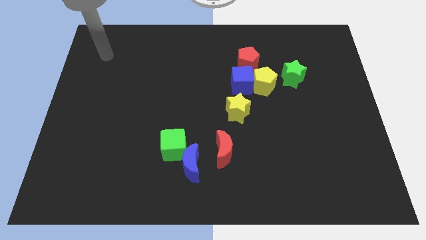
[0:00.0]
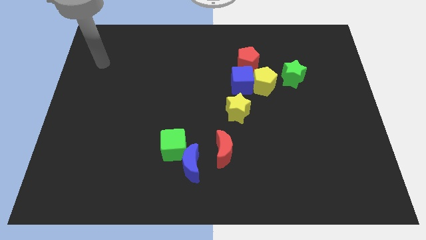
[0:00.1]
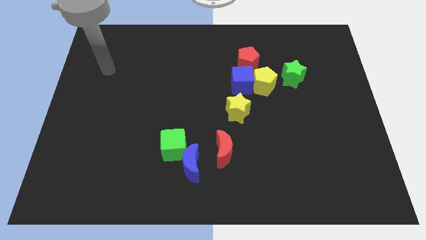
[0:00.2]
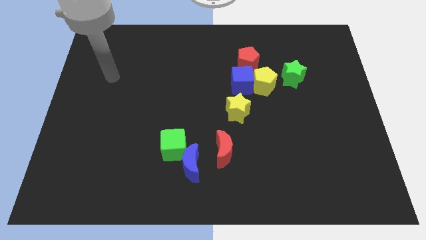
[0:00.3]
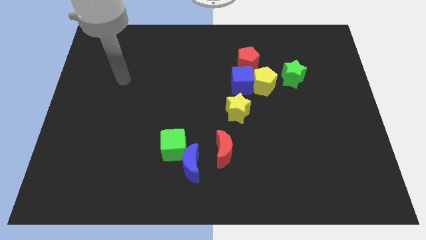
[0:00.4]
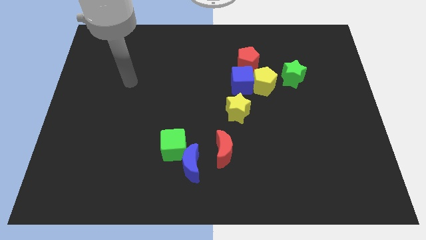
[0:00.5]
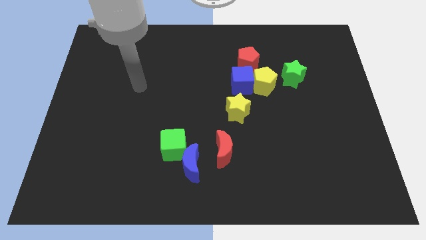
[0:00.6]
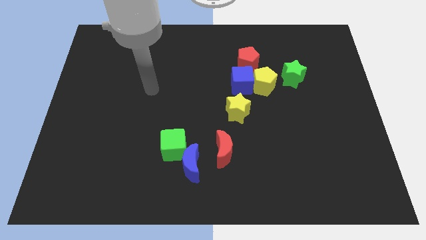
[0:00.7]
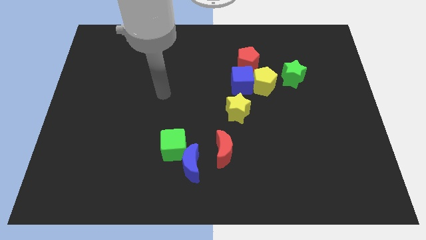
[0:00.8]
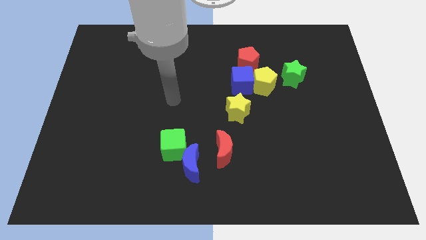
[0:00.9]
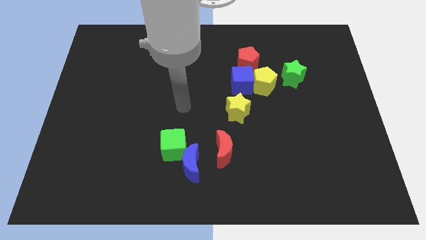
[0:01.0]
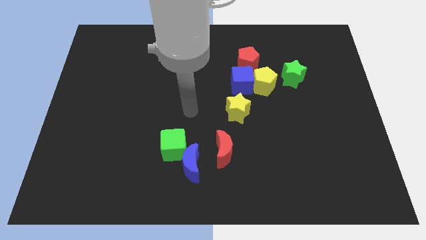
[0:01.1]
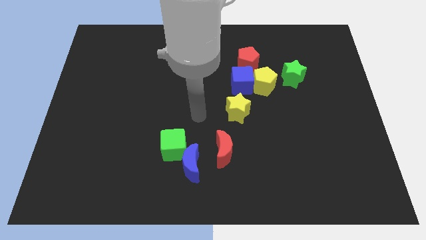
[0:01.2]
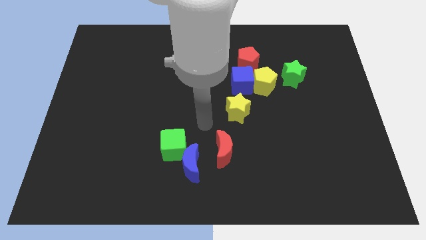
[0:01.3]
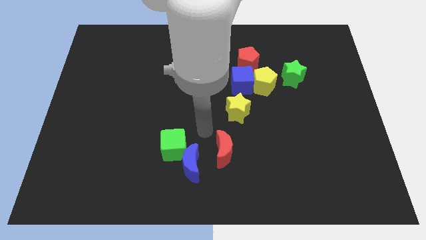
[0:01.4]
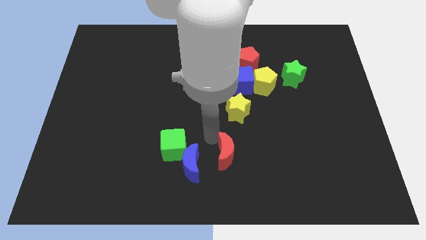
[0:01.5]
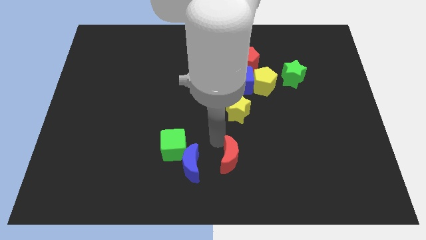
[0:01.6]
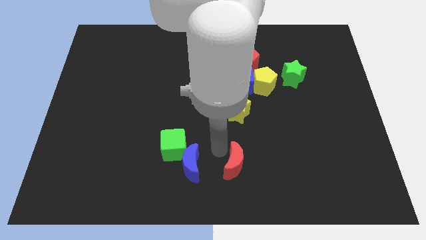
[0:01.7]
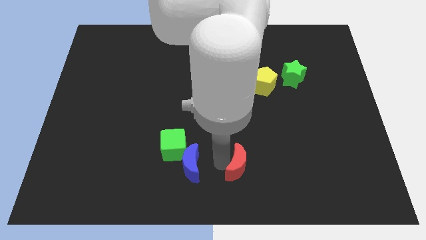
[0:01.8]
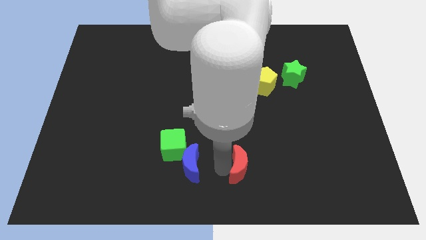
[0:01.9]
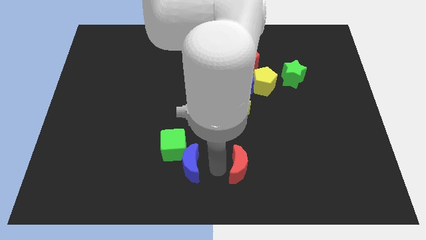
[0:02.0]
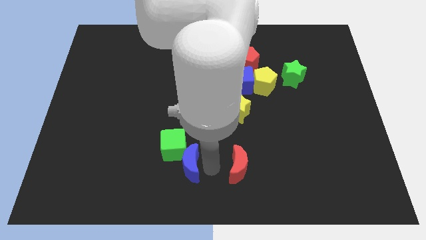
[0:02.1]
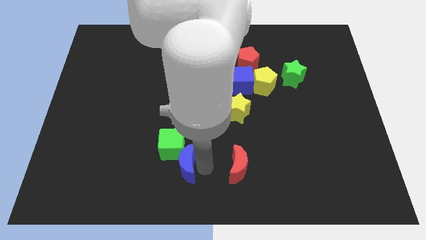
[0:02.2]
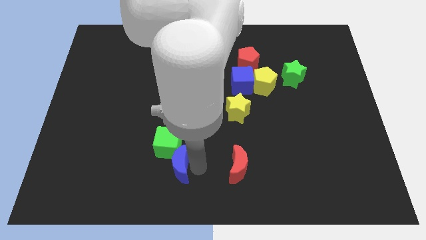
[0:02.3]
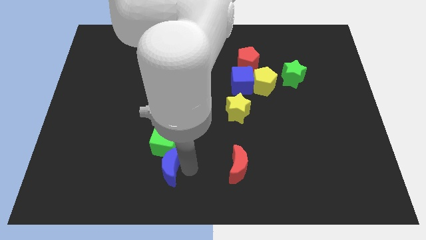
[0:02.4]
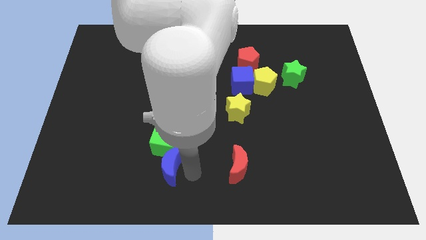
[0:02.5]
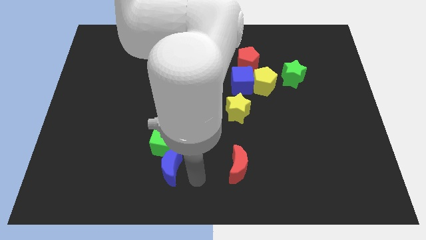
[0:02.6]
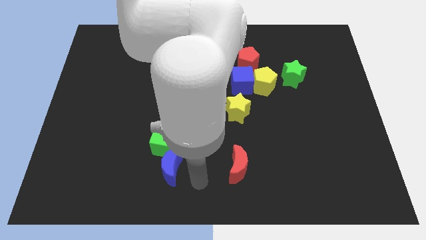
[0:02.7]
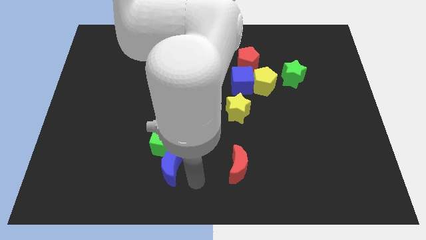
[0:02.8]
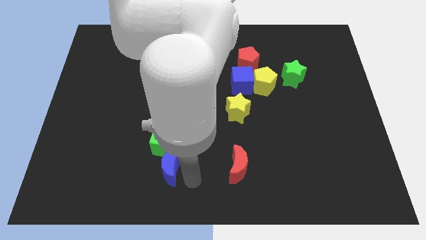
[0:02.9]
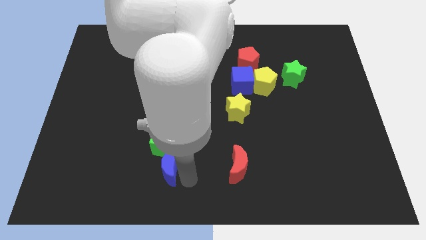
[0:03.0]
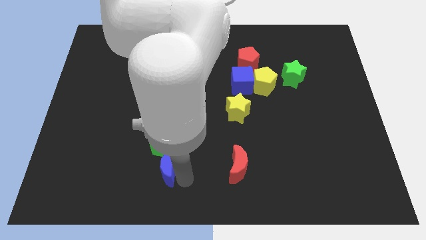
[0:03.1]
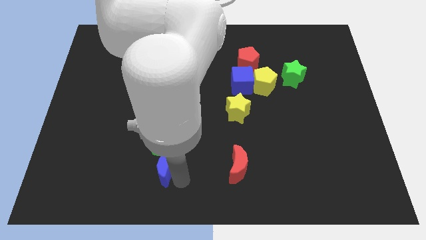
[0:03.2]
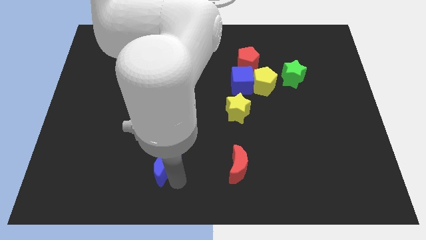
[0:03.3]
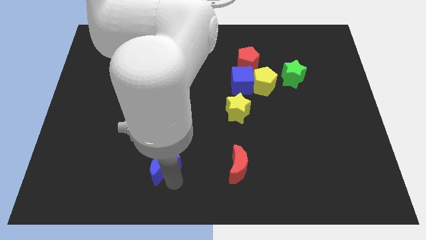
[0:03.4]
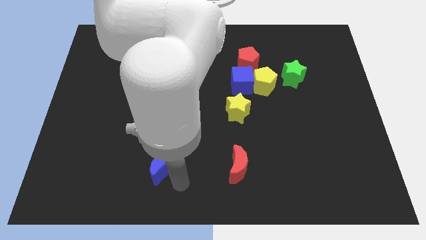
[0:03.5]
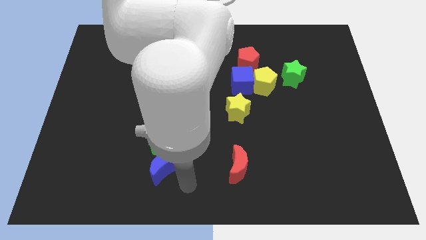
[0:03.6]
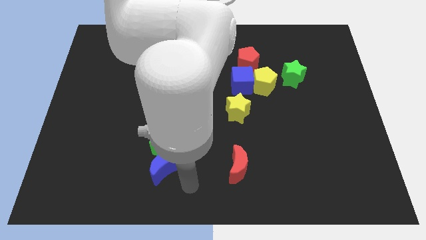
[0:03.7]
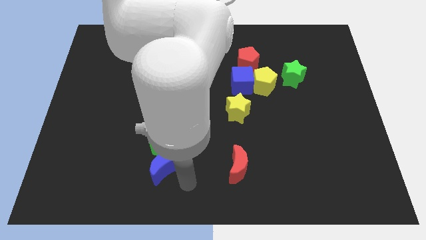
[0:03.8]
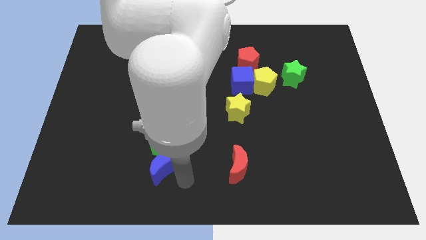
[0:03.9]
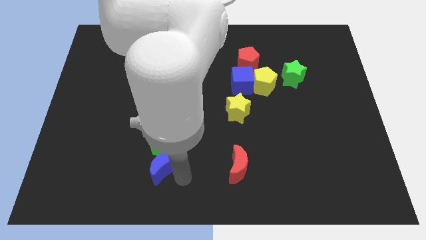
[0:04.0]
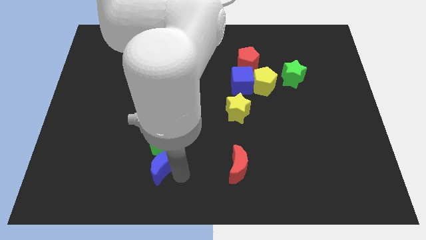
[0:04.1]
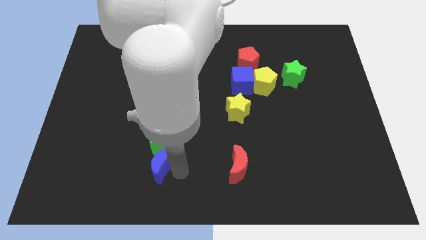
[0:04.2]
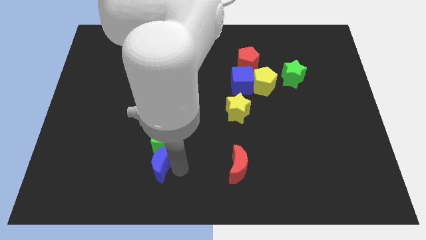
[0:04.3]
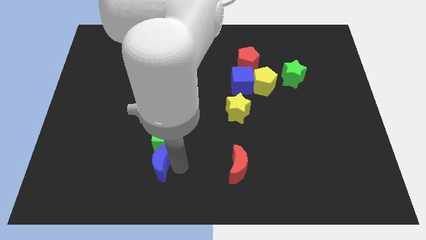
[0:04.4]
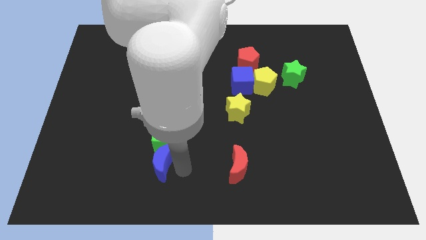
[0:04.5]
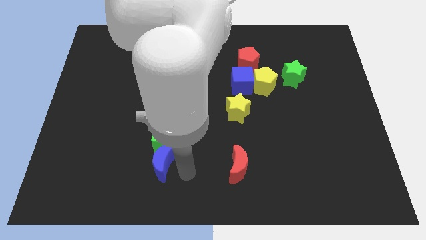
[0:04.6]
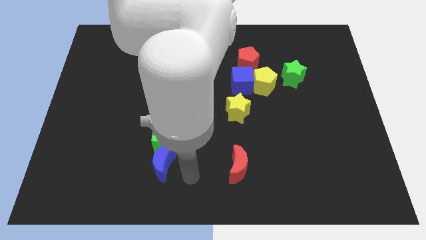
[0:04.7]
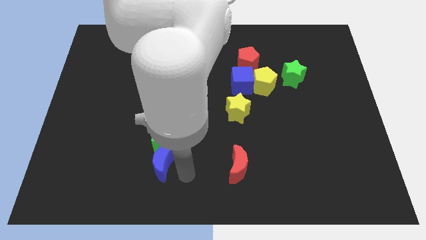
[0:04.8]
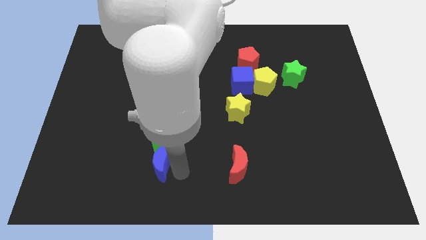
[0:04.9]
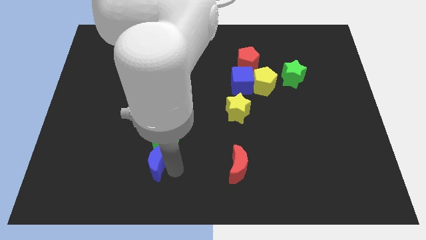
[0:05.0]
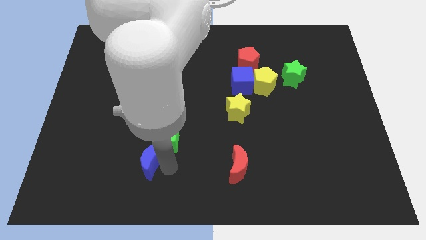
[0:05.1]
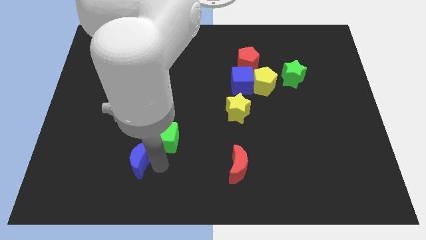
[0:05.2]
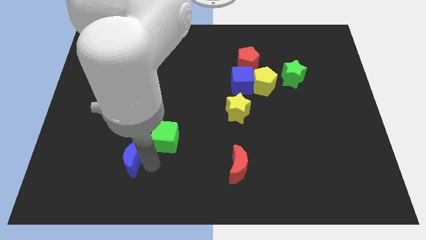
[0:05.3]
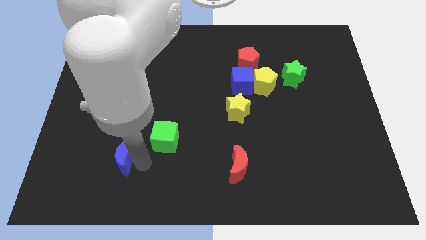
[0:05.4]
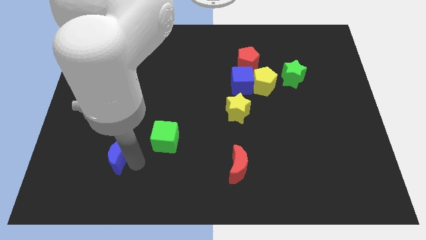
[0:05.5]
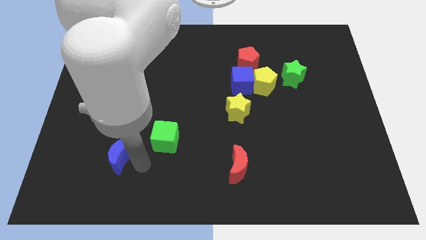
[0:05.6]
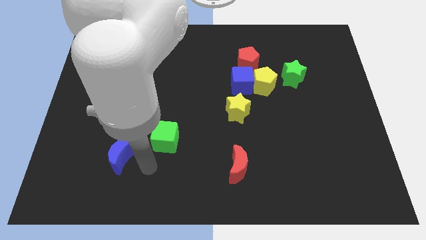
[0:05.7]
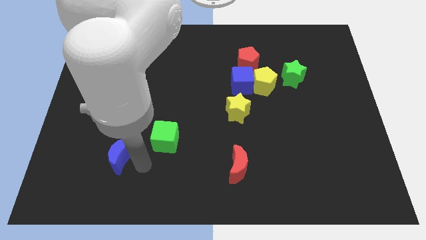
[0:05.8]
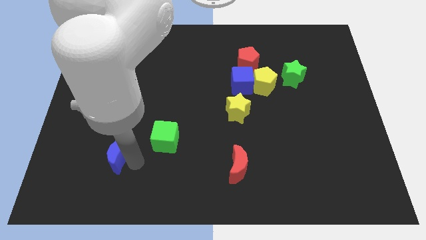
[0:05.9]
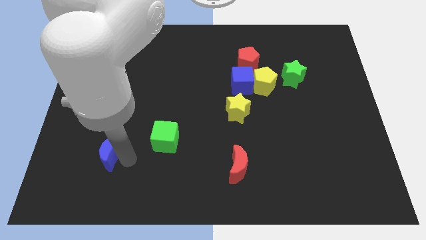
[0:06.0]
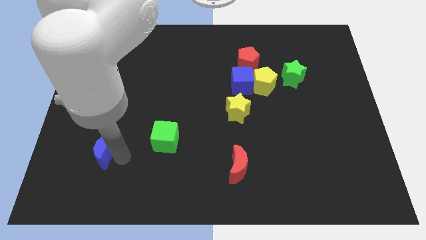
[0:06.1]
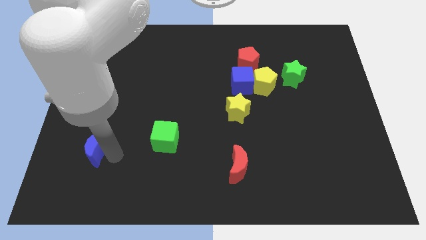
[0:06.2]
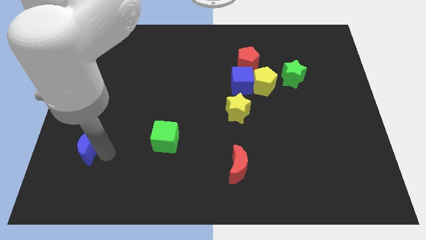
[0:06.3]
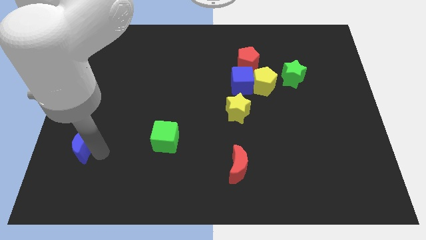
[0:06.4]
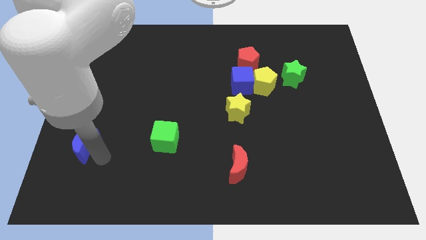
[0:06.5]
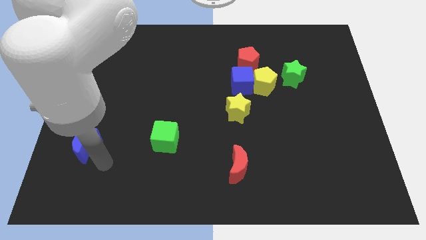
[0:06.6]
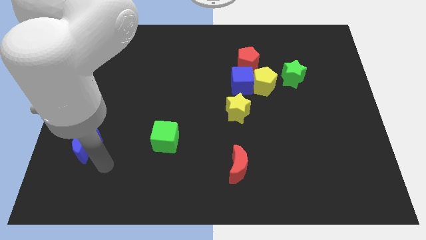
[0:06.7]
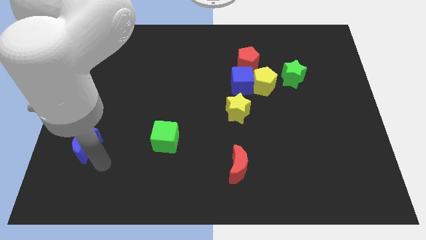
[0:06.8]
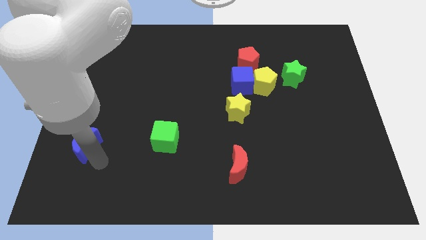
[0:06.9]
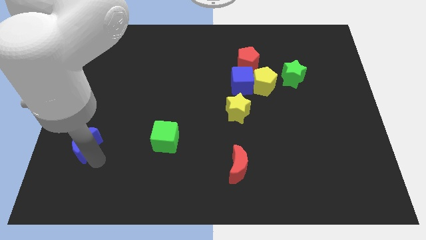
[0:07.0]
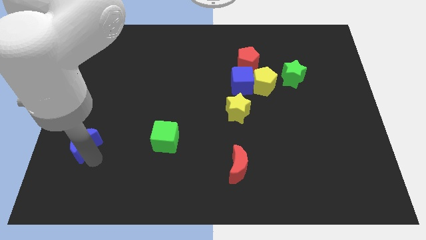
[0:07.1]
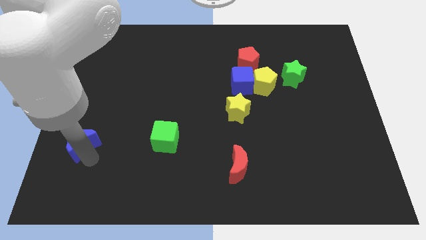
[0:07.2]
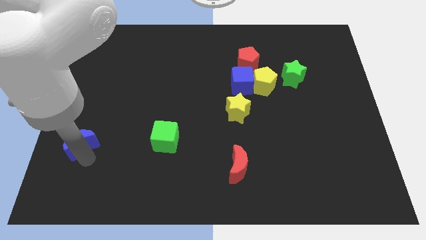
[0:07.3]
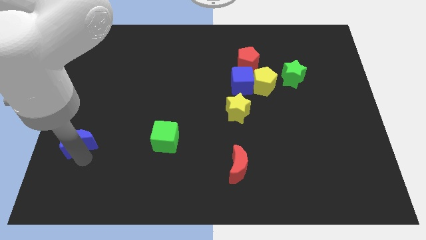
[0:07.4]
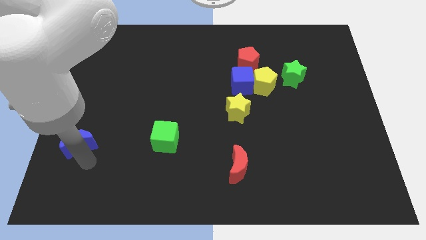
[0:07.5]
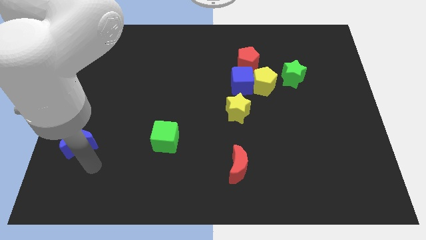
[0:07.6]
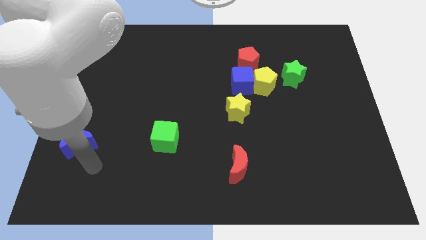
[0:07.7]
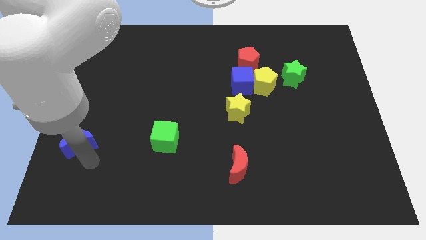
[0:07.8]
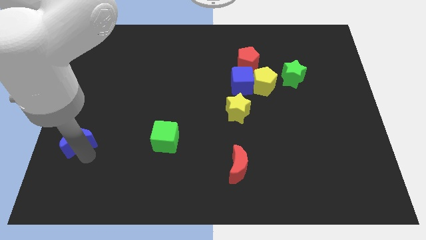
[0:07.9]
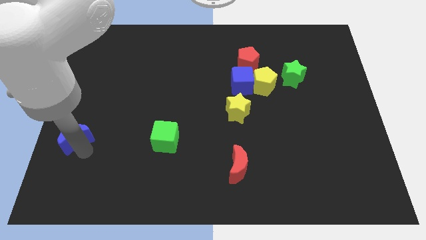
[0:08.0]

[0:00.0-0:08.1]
slide the blue moon to the left side of the board
